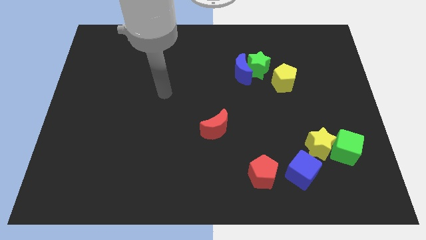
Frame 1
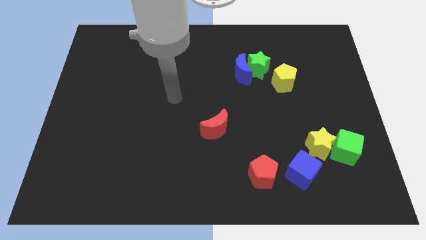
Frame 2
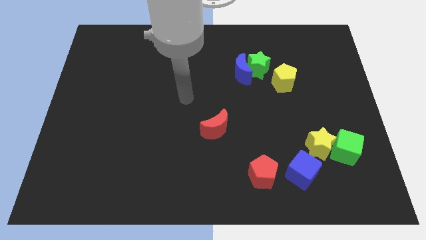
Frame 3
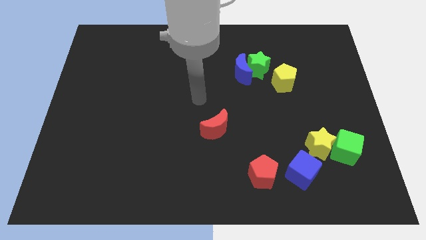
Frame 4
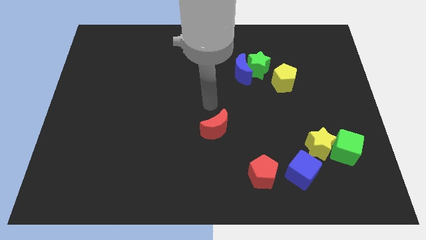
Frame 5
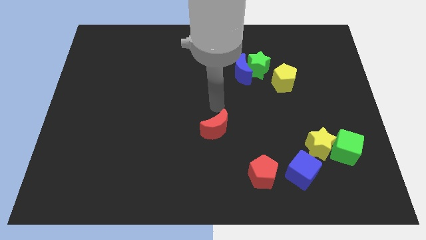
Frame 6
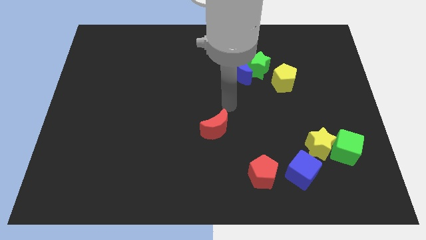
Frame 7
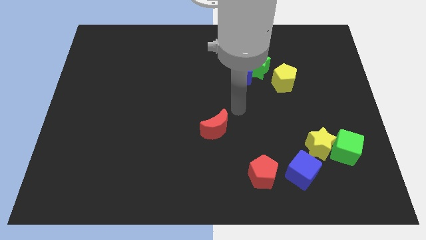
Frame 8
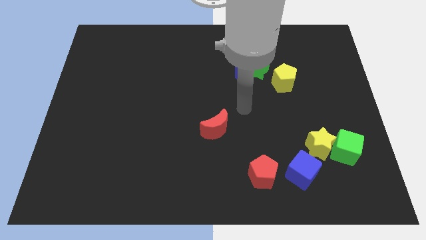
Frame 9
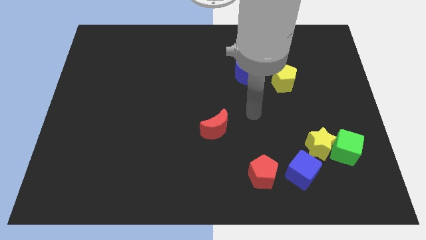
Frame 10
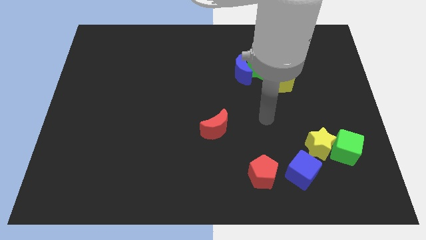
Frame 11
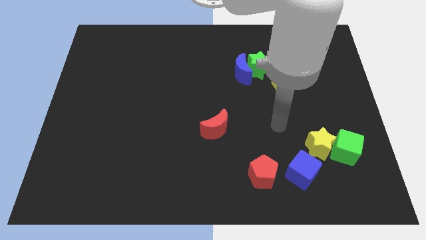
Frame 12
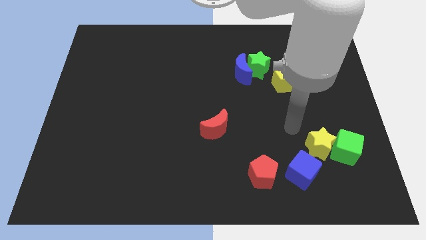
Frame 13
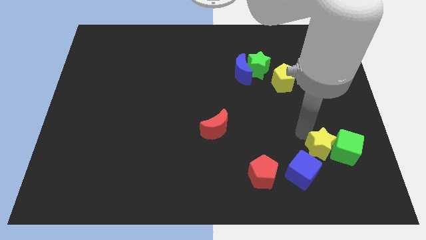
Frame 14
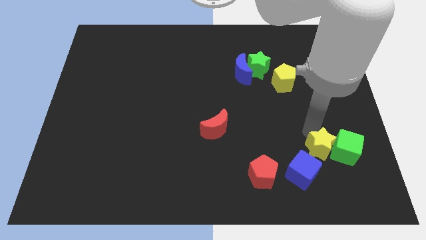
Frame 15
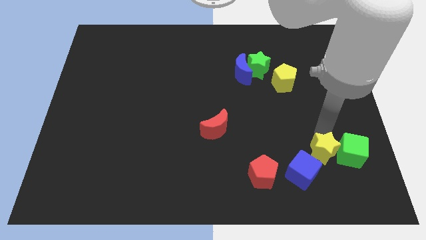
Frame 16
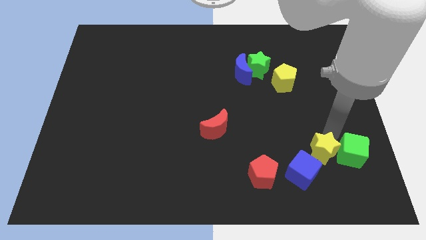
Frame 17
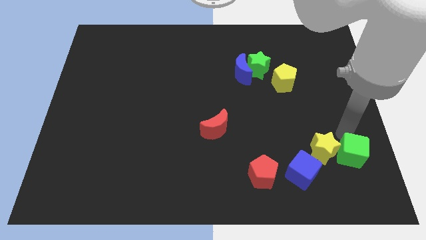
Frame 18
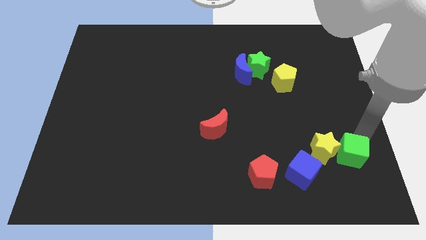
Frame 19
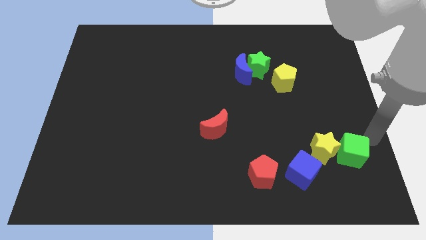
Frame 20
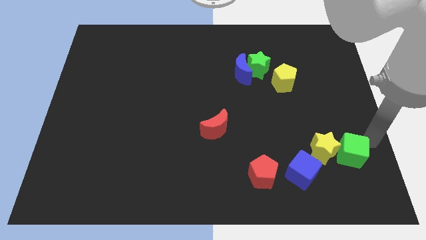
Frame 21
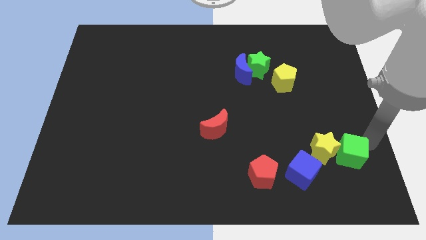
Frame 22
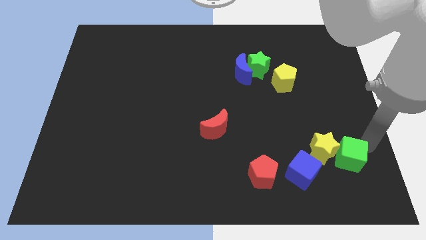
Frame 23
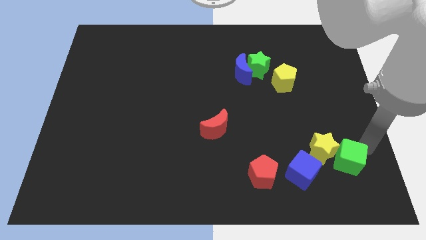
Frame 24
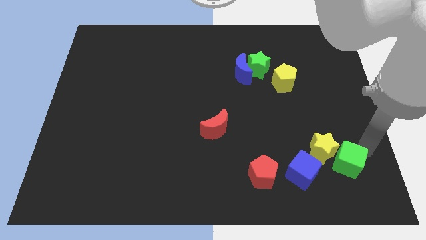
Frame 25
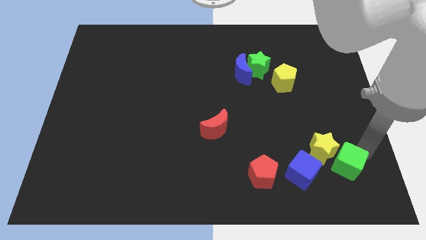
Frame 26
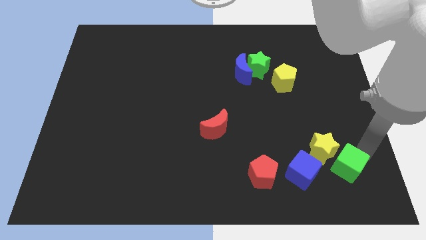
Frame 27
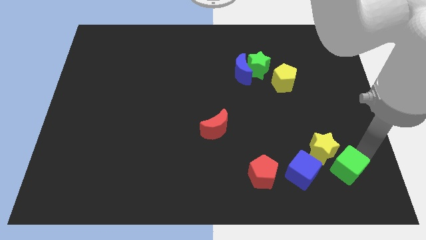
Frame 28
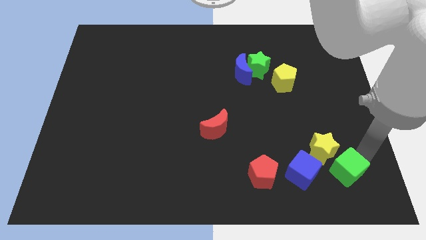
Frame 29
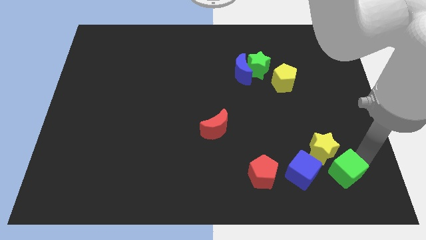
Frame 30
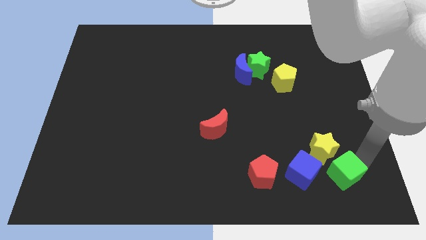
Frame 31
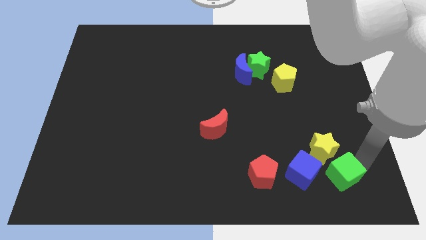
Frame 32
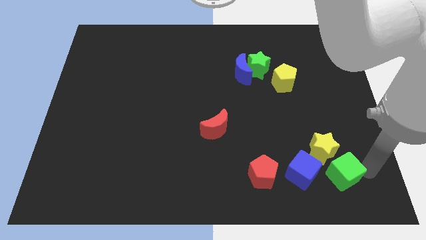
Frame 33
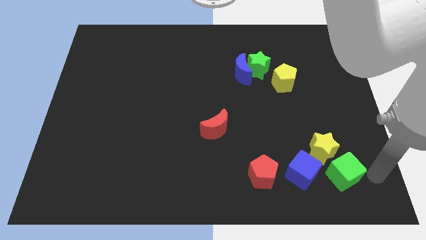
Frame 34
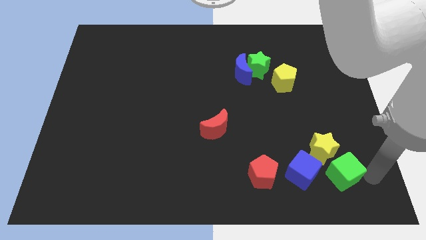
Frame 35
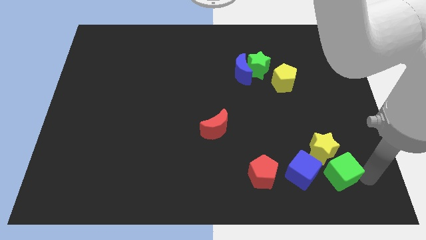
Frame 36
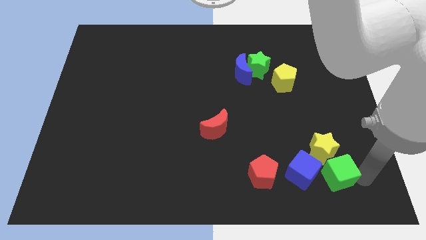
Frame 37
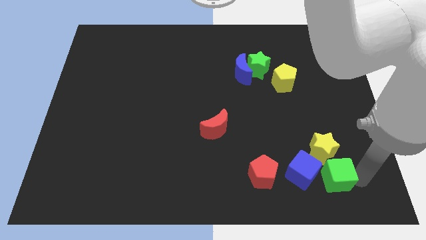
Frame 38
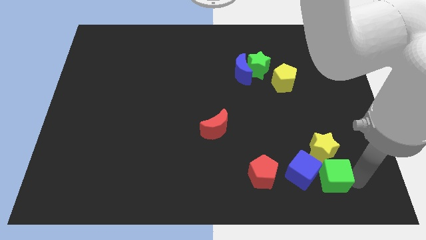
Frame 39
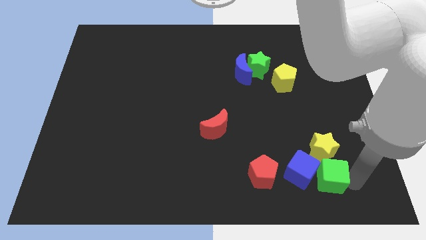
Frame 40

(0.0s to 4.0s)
push the green cube to the blue cube

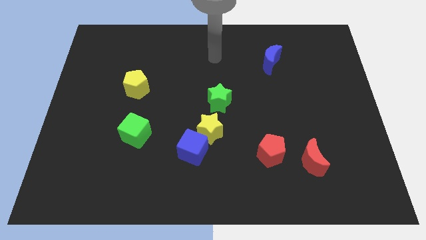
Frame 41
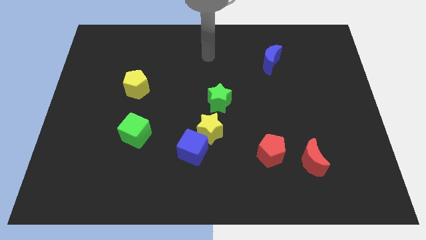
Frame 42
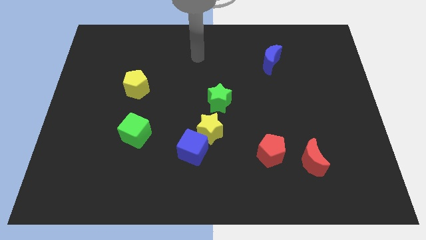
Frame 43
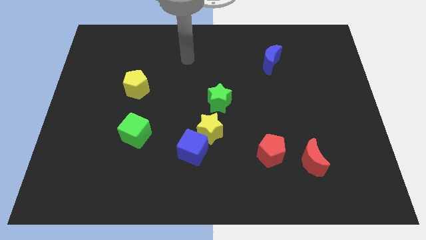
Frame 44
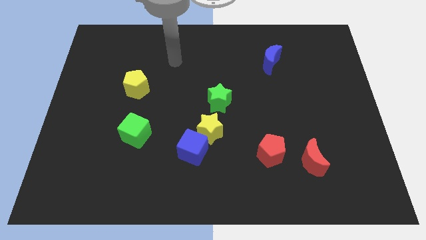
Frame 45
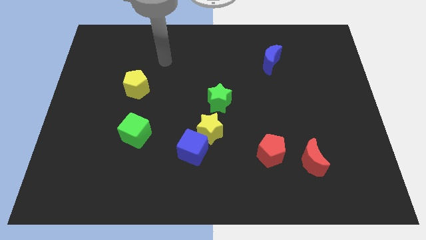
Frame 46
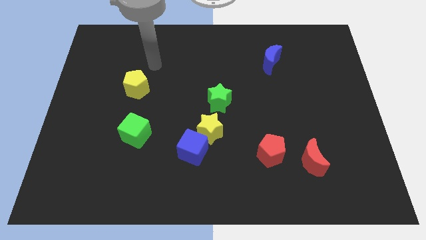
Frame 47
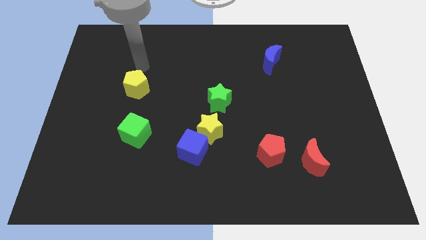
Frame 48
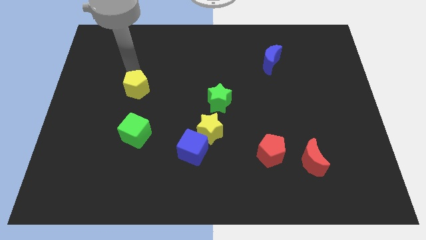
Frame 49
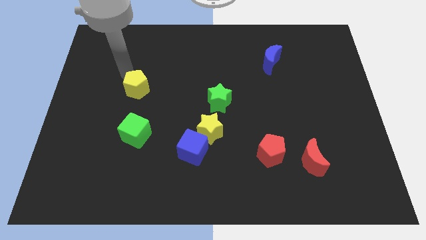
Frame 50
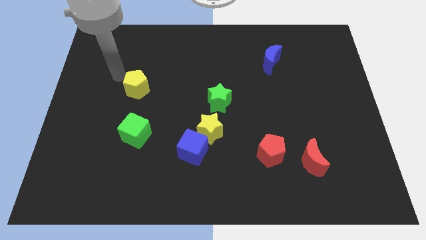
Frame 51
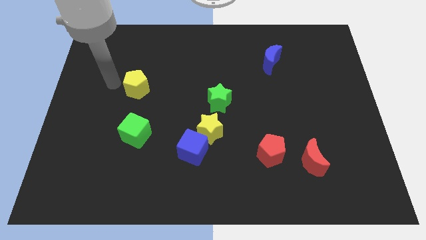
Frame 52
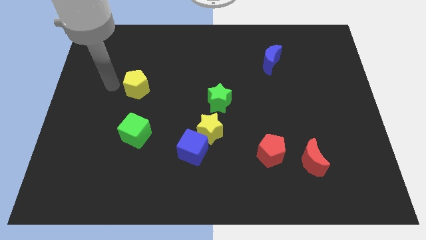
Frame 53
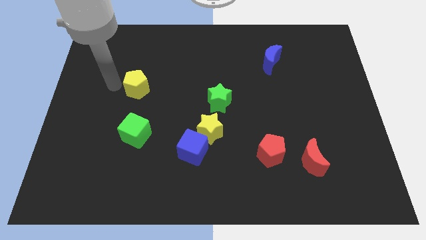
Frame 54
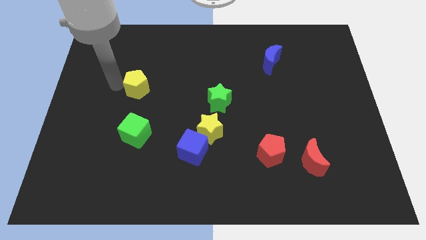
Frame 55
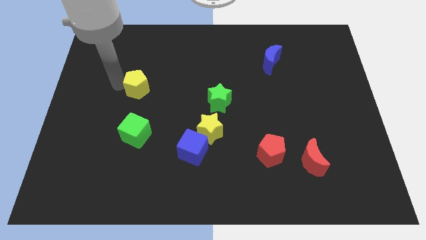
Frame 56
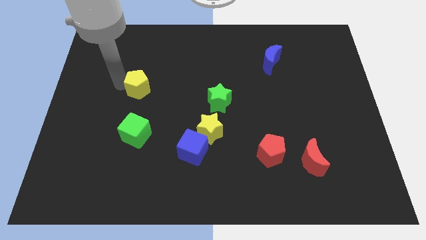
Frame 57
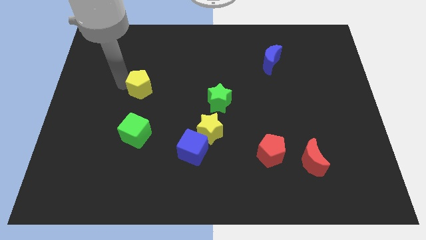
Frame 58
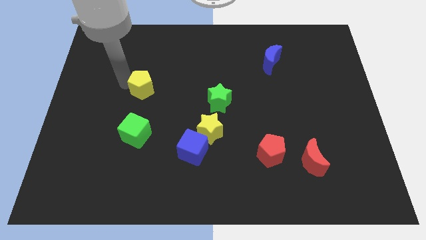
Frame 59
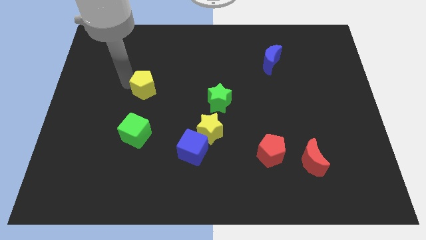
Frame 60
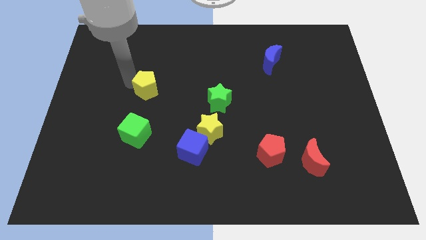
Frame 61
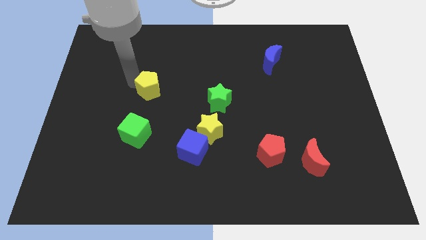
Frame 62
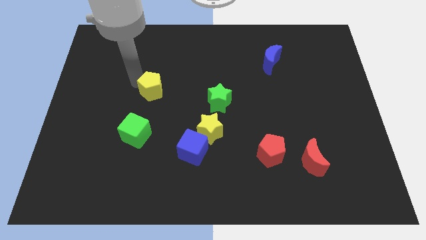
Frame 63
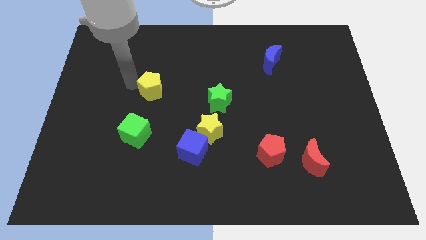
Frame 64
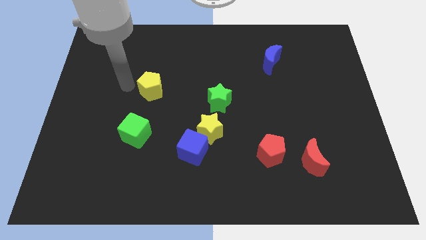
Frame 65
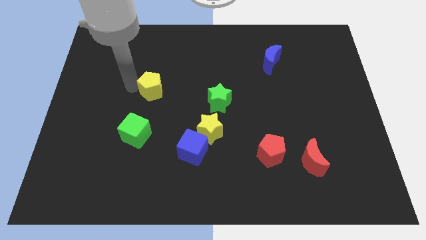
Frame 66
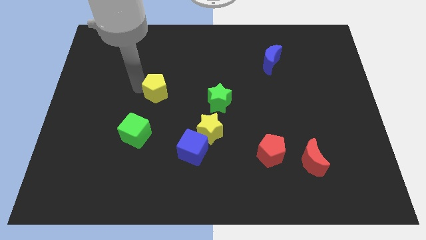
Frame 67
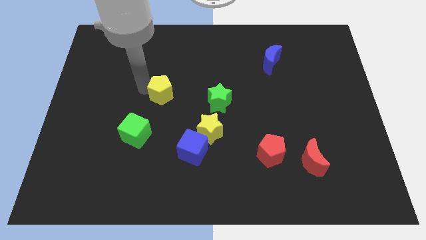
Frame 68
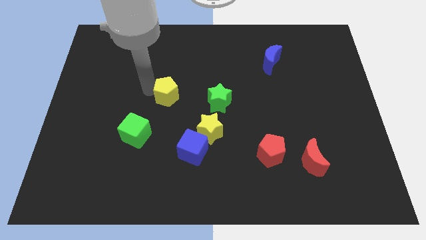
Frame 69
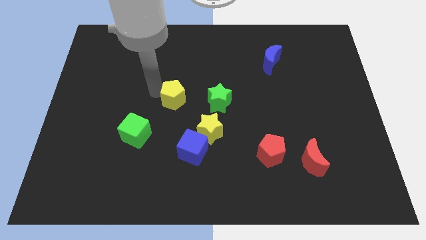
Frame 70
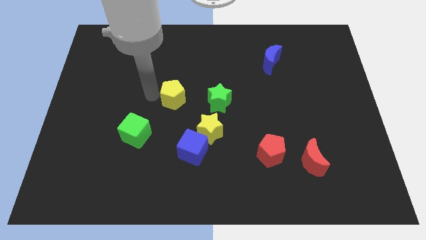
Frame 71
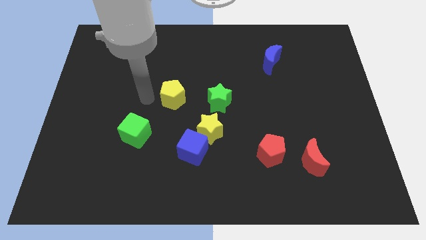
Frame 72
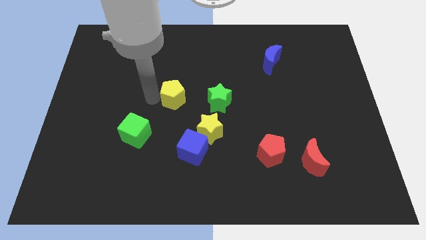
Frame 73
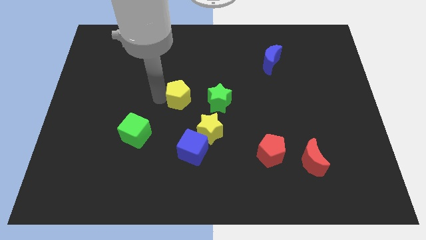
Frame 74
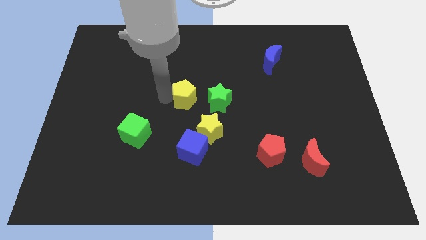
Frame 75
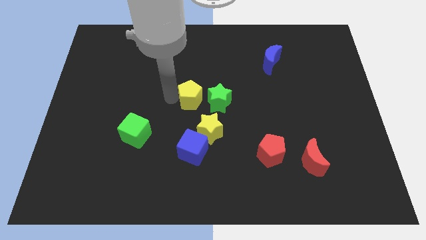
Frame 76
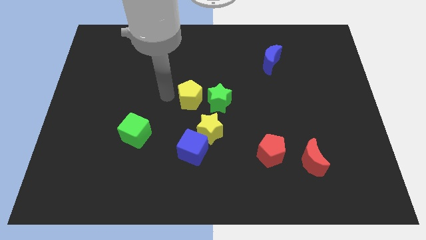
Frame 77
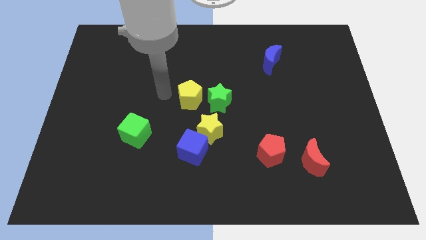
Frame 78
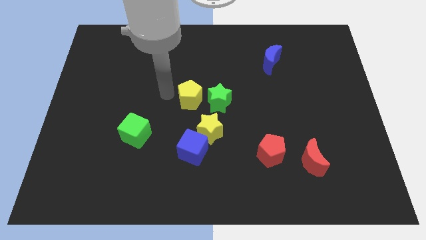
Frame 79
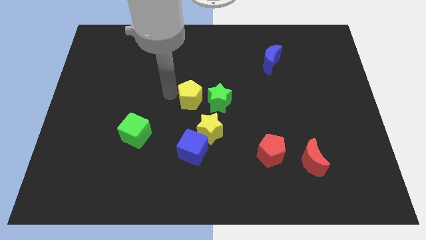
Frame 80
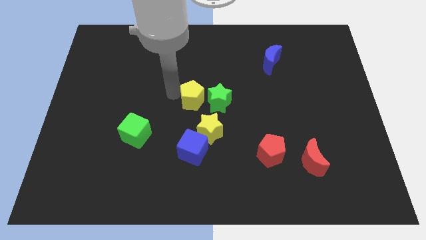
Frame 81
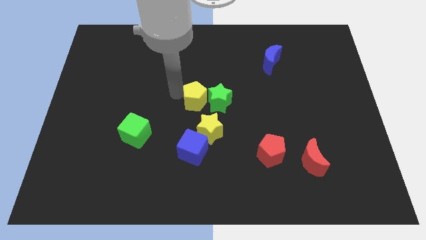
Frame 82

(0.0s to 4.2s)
push the yellow pentagon next to the green star
